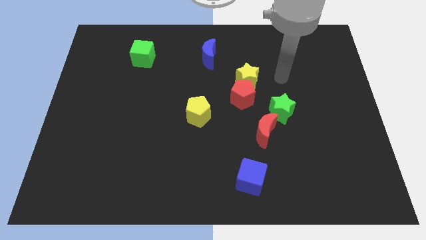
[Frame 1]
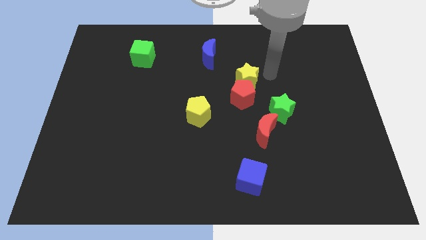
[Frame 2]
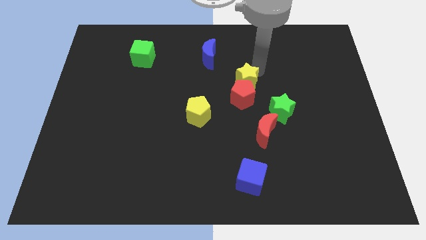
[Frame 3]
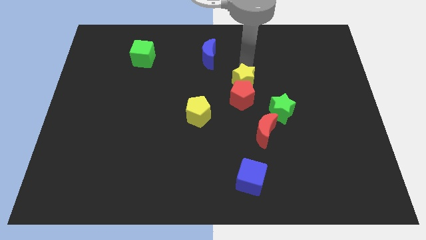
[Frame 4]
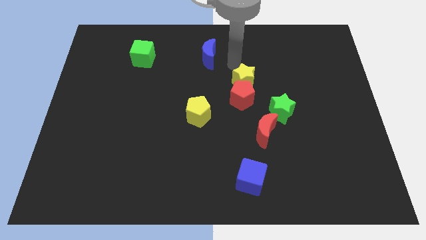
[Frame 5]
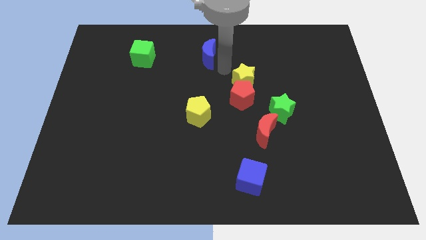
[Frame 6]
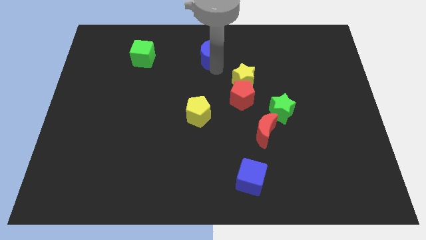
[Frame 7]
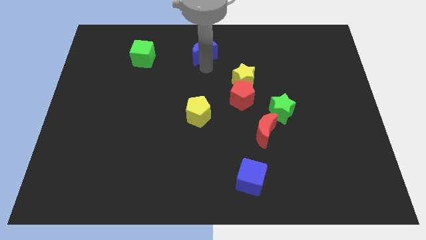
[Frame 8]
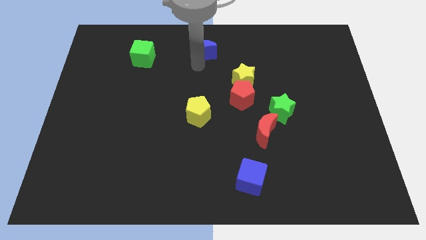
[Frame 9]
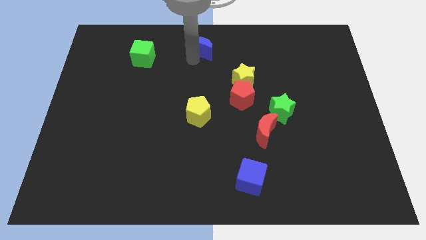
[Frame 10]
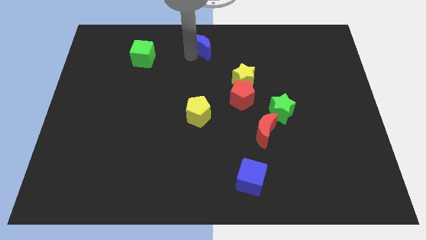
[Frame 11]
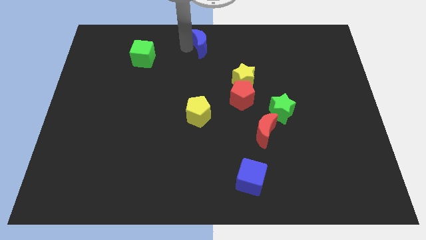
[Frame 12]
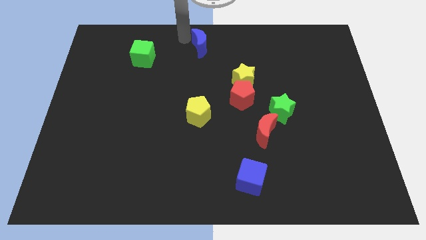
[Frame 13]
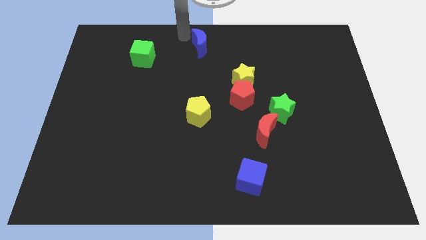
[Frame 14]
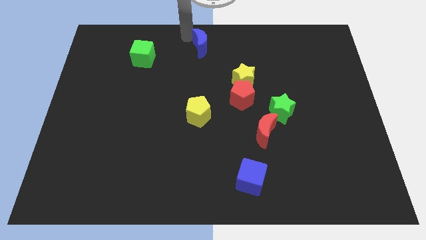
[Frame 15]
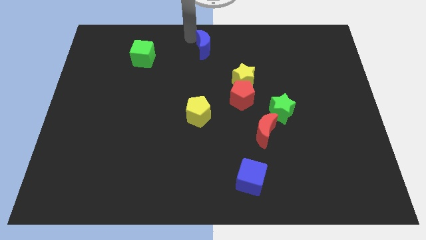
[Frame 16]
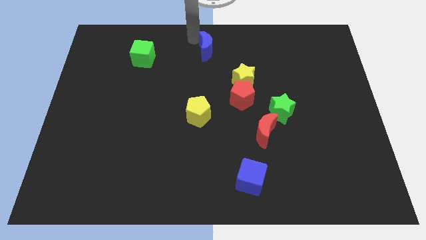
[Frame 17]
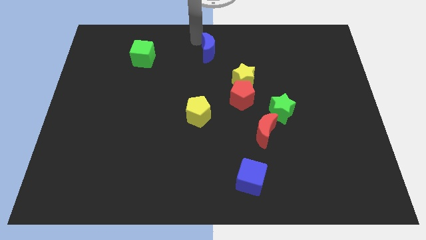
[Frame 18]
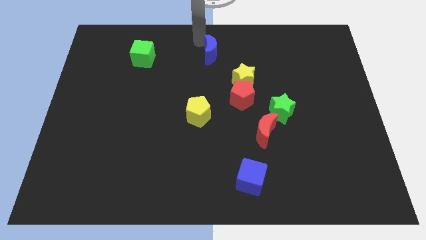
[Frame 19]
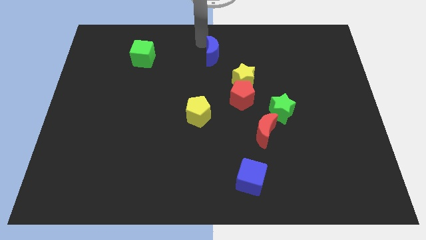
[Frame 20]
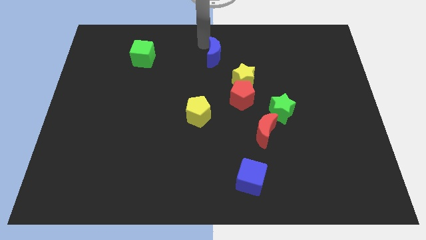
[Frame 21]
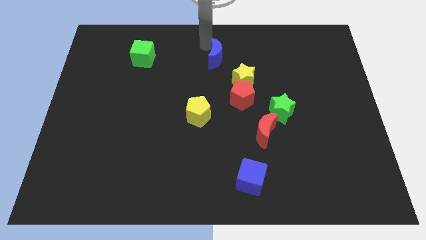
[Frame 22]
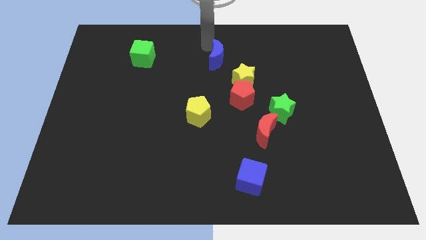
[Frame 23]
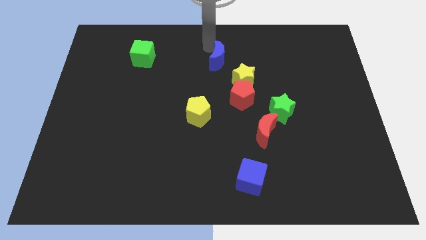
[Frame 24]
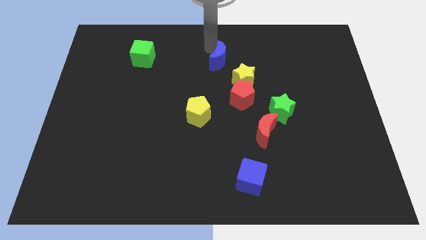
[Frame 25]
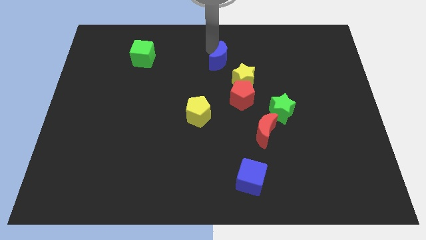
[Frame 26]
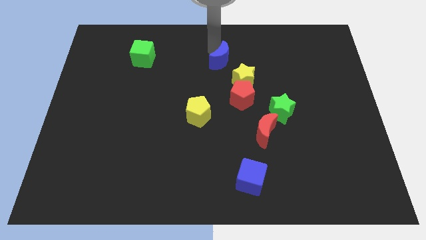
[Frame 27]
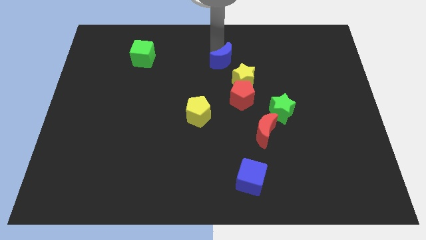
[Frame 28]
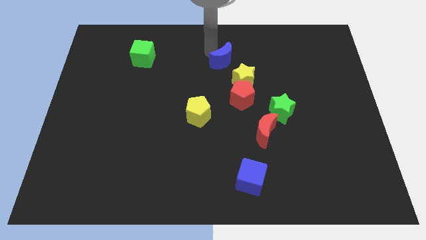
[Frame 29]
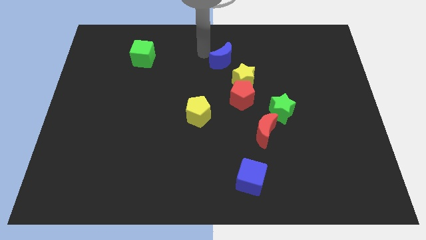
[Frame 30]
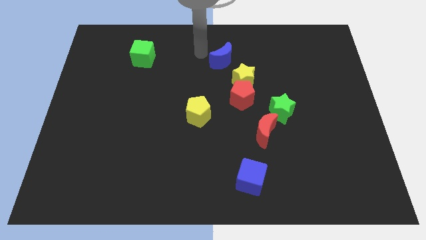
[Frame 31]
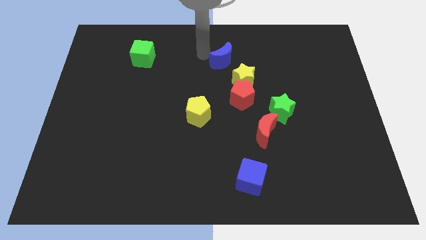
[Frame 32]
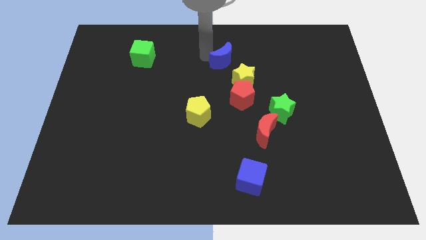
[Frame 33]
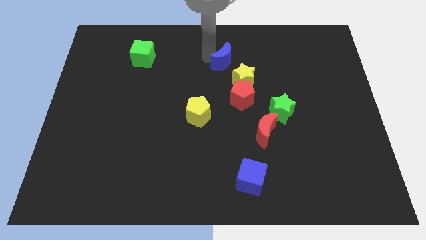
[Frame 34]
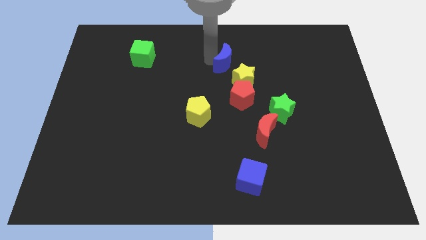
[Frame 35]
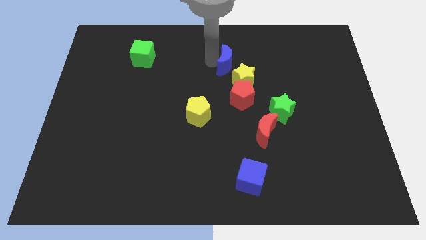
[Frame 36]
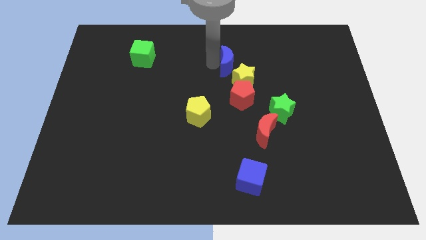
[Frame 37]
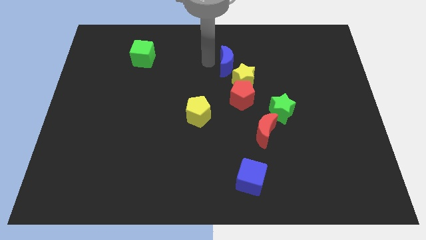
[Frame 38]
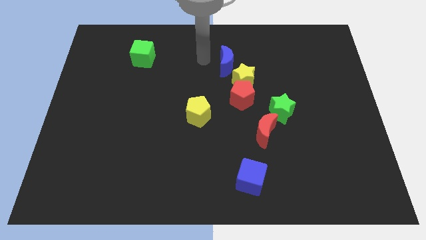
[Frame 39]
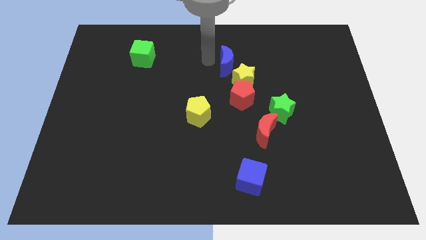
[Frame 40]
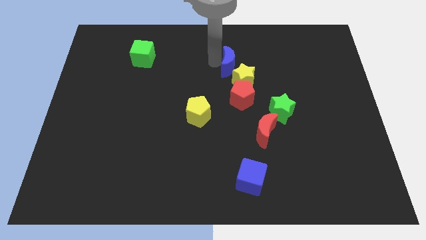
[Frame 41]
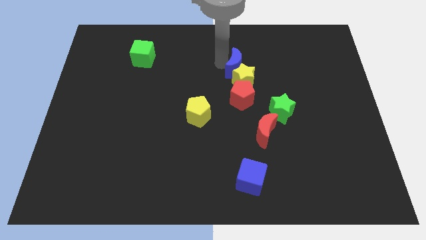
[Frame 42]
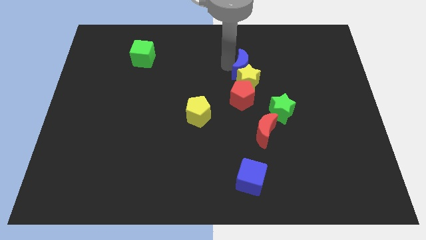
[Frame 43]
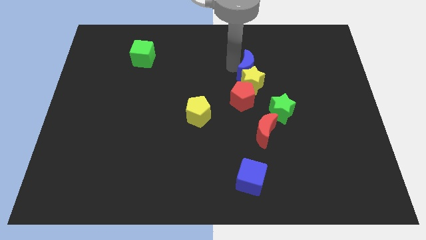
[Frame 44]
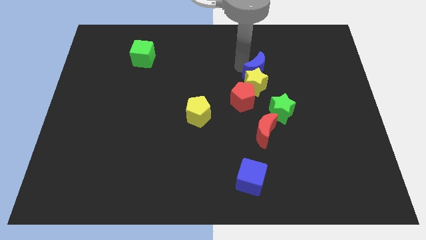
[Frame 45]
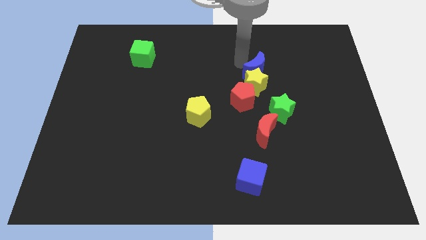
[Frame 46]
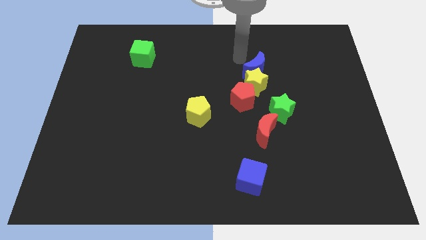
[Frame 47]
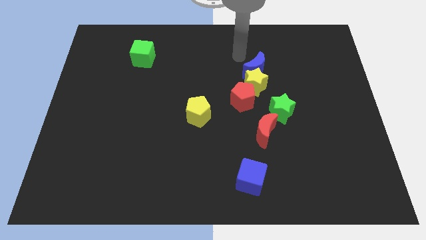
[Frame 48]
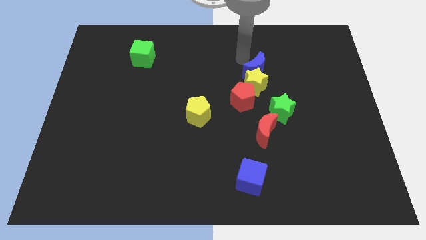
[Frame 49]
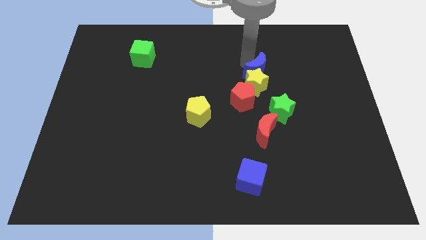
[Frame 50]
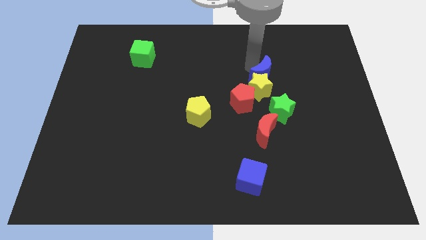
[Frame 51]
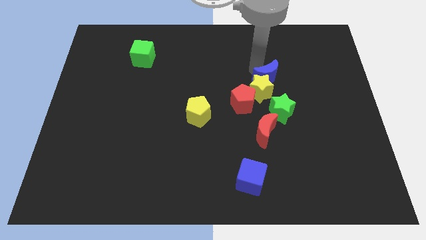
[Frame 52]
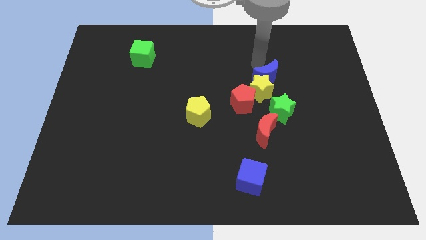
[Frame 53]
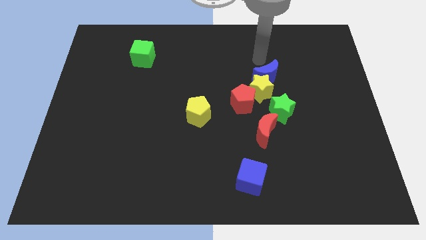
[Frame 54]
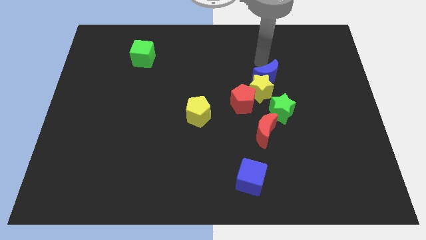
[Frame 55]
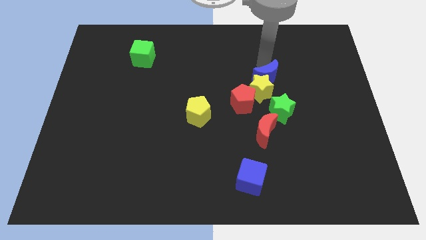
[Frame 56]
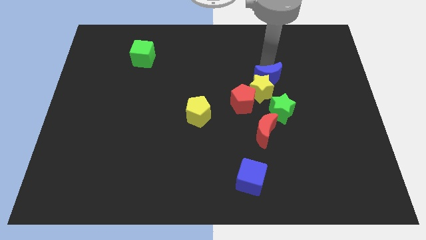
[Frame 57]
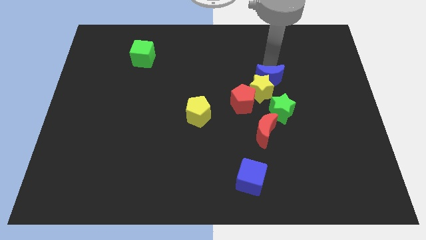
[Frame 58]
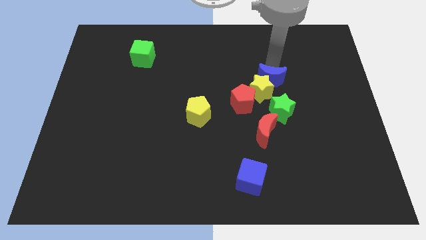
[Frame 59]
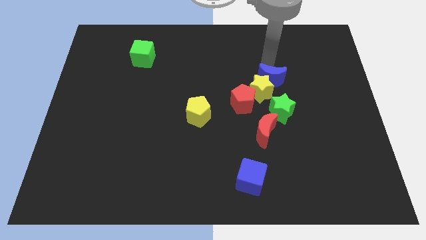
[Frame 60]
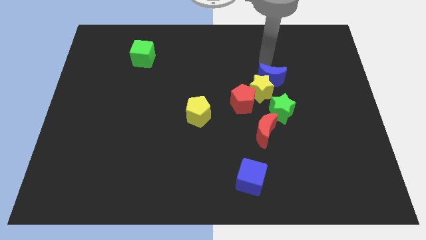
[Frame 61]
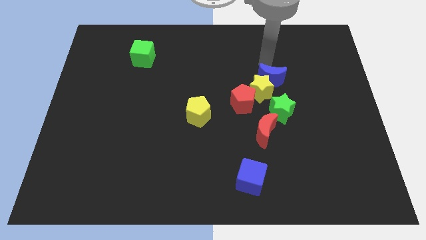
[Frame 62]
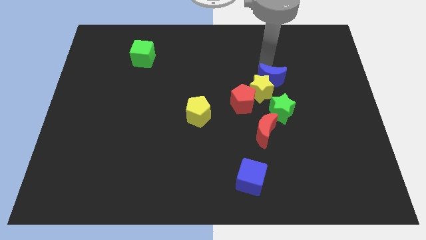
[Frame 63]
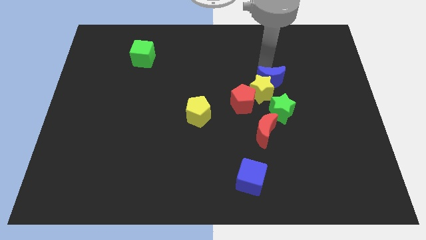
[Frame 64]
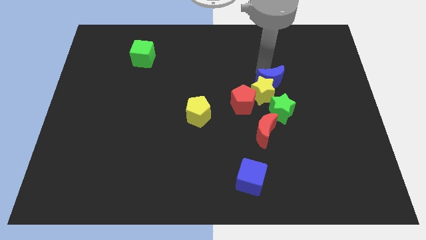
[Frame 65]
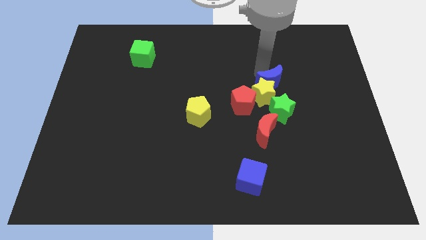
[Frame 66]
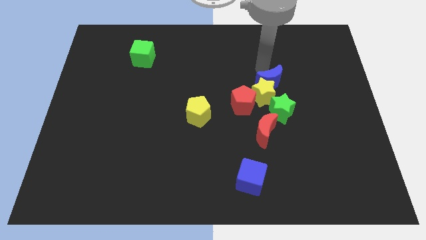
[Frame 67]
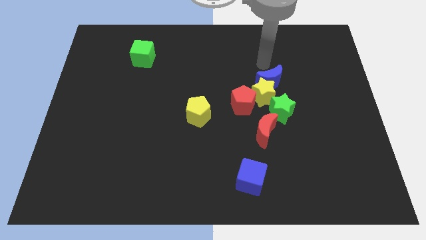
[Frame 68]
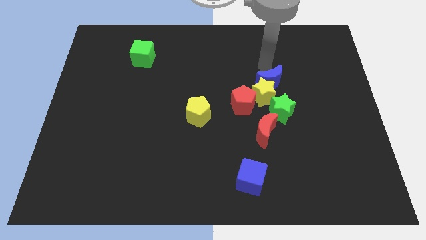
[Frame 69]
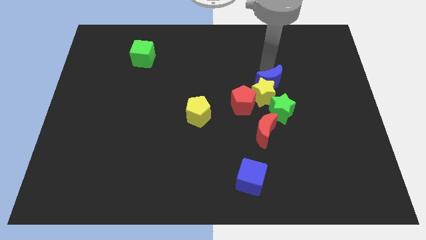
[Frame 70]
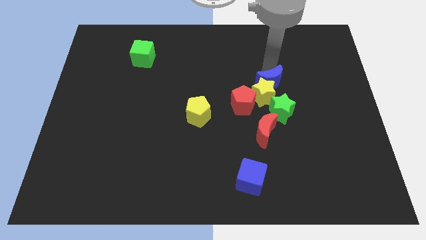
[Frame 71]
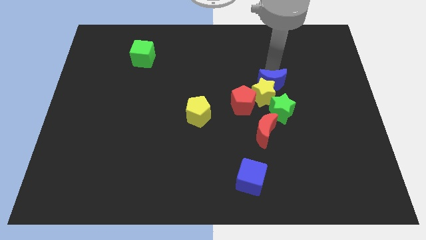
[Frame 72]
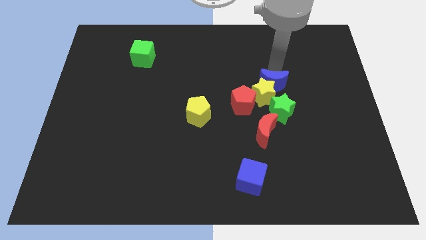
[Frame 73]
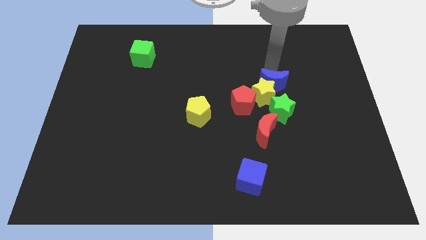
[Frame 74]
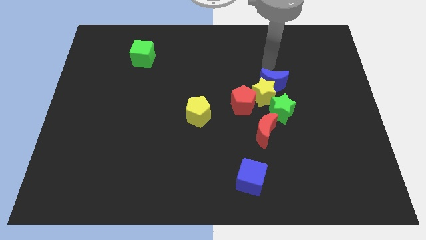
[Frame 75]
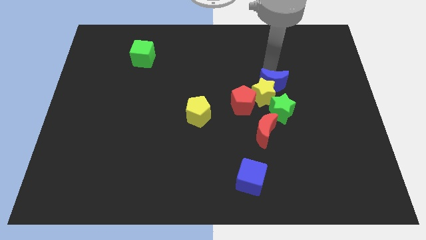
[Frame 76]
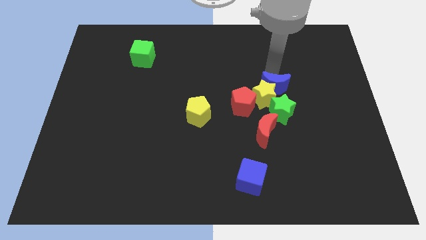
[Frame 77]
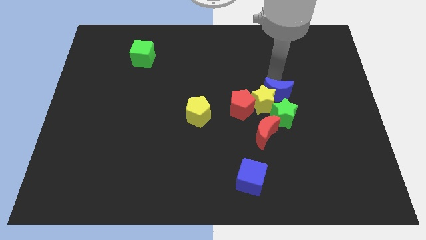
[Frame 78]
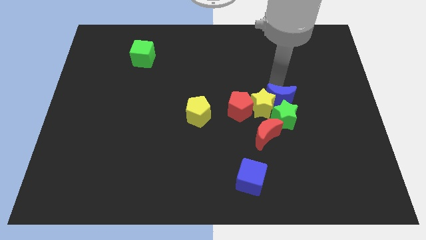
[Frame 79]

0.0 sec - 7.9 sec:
put the blue moon towards the green star
